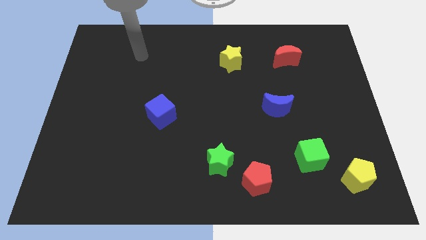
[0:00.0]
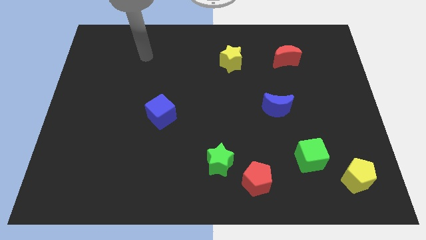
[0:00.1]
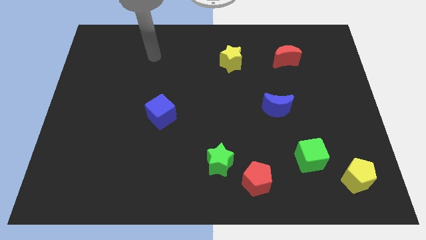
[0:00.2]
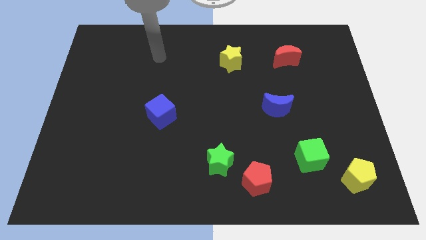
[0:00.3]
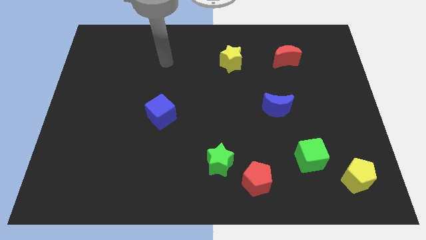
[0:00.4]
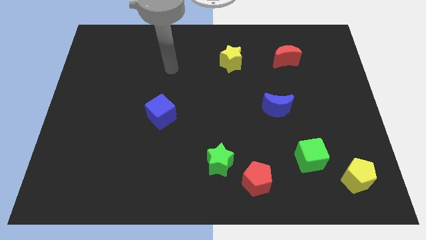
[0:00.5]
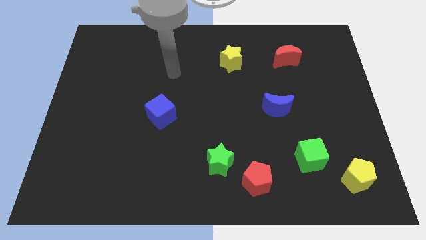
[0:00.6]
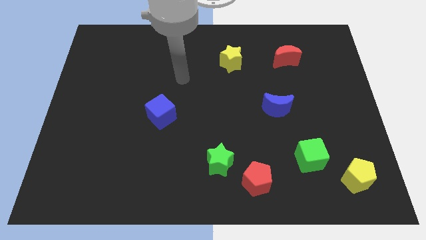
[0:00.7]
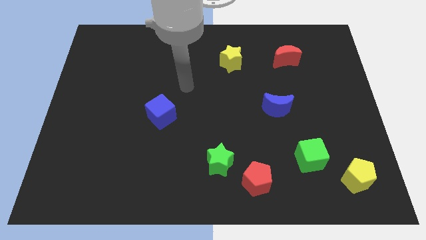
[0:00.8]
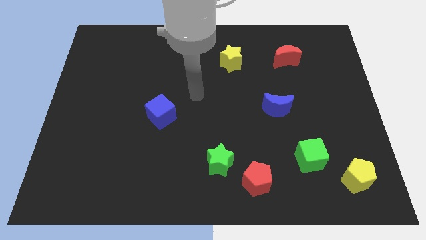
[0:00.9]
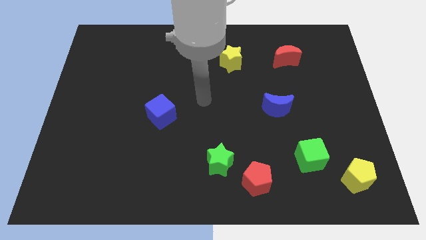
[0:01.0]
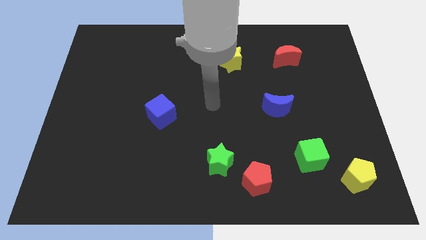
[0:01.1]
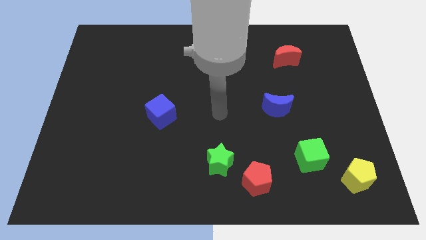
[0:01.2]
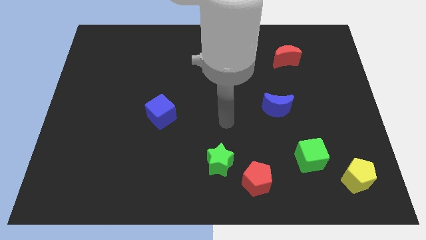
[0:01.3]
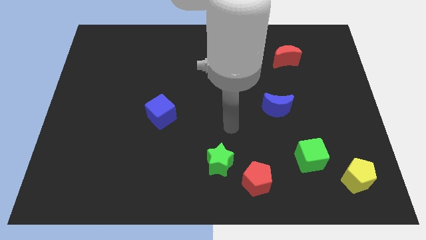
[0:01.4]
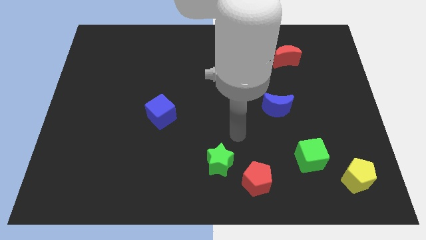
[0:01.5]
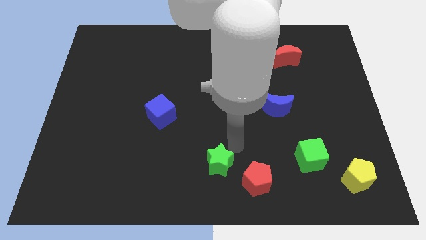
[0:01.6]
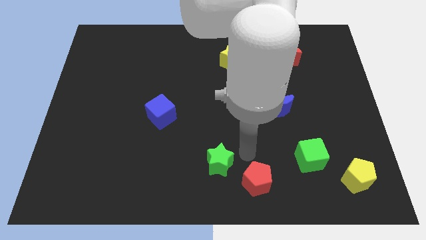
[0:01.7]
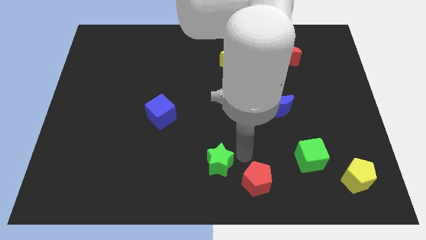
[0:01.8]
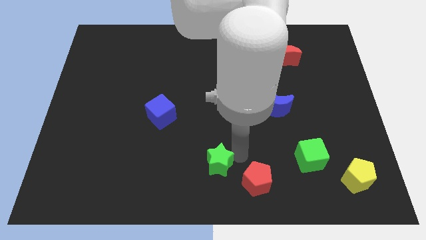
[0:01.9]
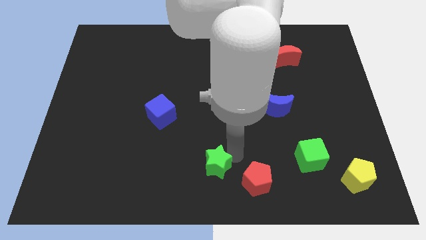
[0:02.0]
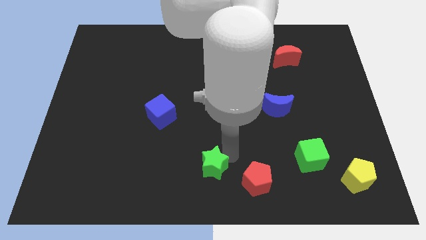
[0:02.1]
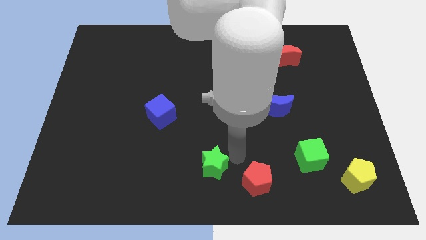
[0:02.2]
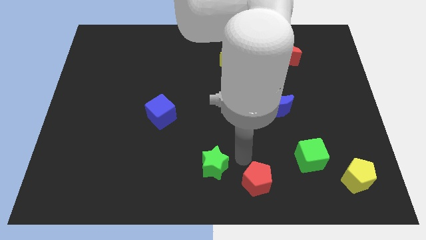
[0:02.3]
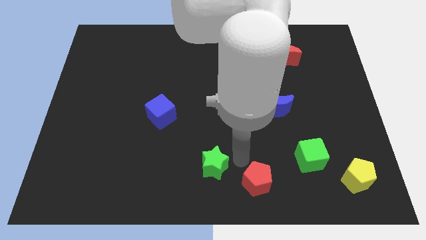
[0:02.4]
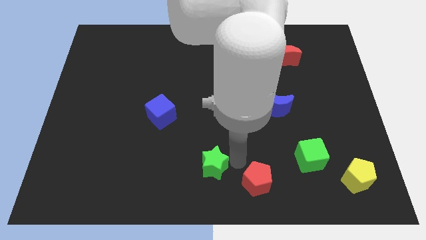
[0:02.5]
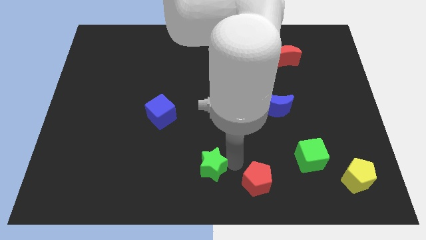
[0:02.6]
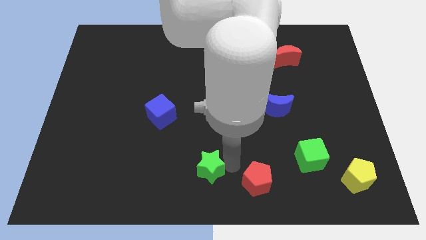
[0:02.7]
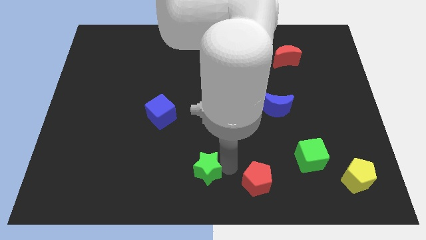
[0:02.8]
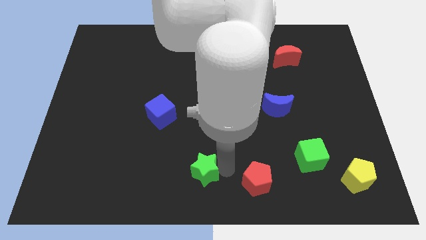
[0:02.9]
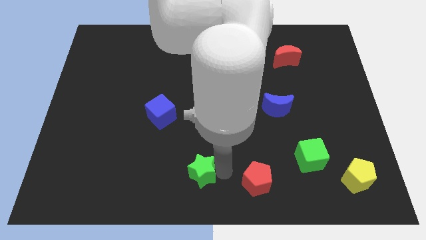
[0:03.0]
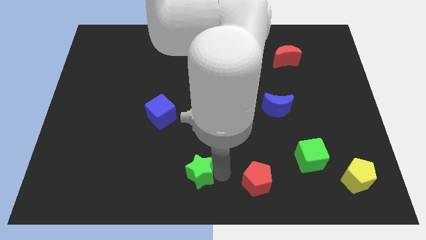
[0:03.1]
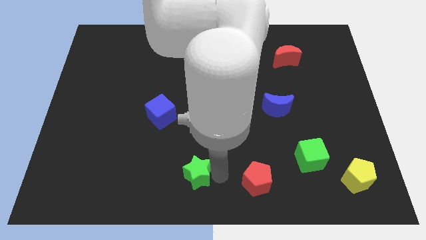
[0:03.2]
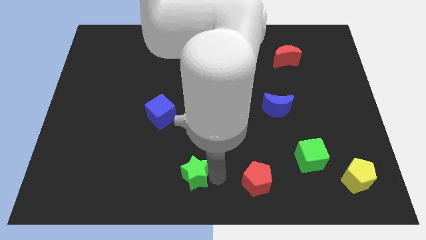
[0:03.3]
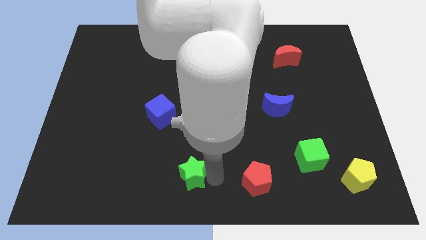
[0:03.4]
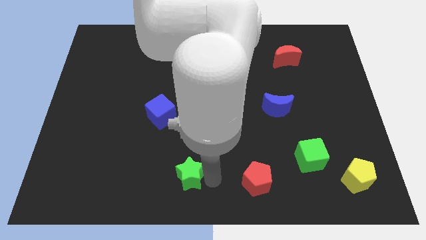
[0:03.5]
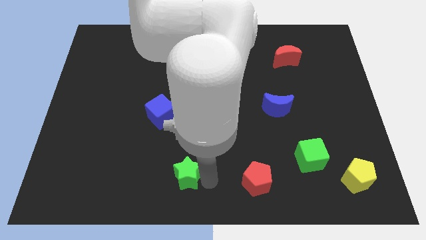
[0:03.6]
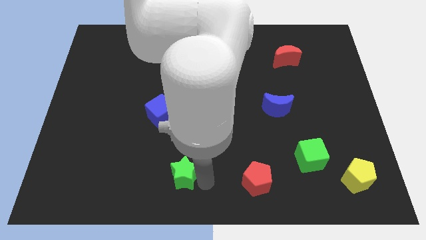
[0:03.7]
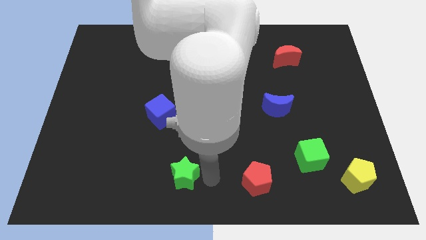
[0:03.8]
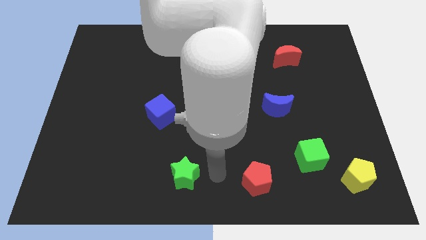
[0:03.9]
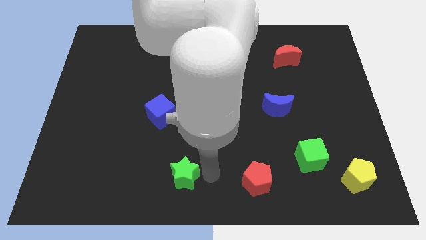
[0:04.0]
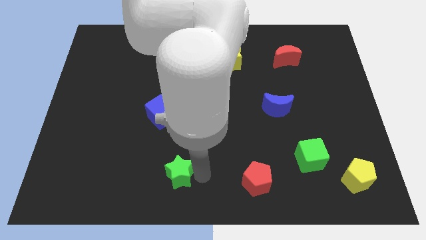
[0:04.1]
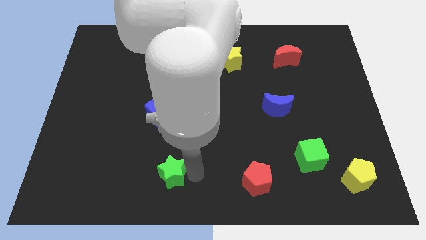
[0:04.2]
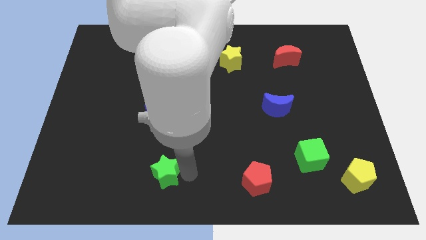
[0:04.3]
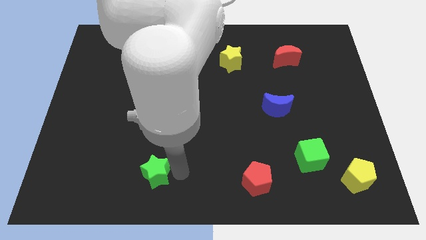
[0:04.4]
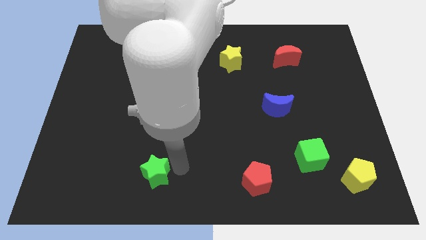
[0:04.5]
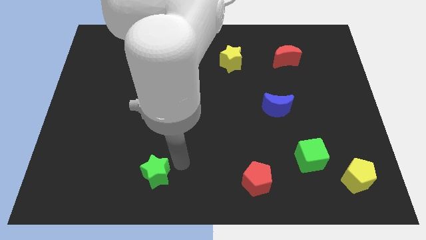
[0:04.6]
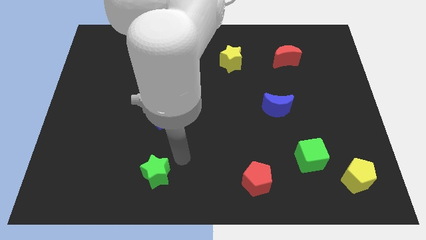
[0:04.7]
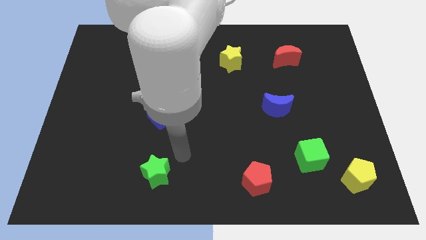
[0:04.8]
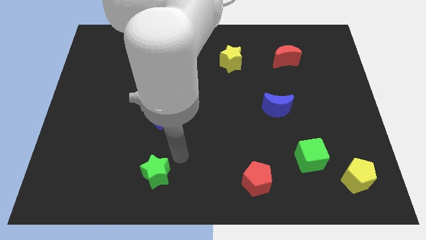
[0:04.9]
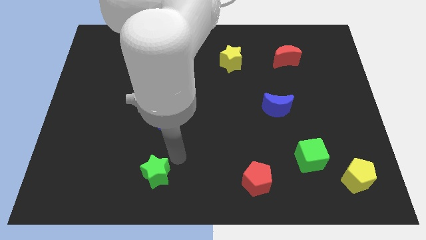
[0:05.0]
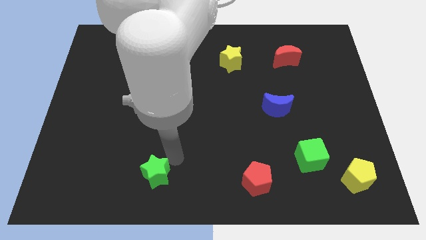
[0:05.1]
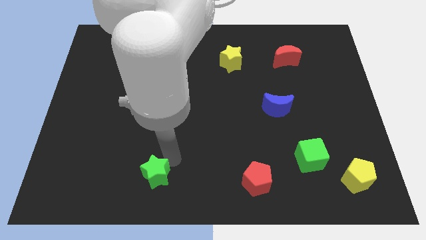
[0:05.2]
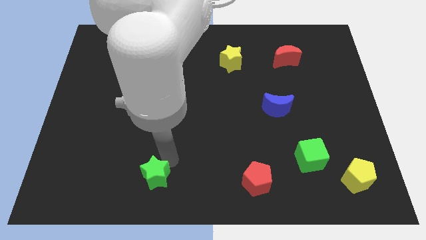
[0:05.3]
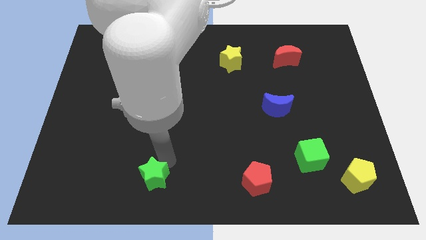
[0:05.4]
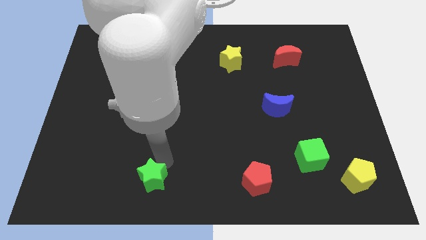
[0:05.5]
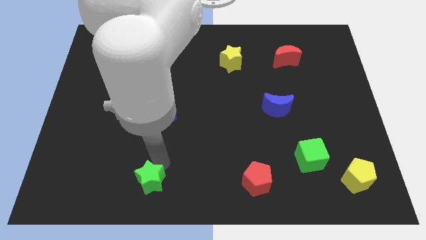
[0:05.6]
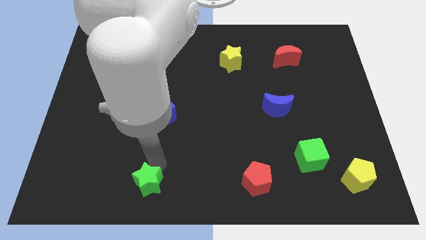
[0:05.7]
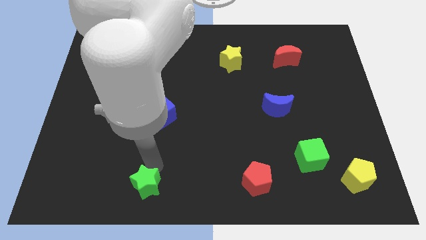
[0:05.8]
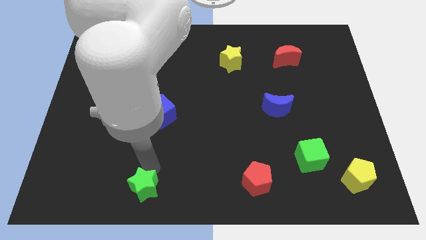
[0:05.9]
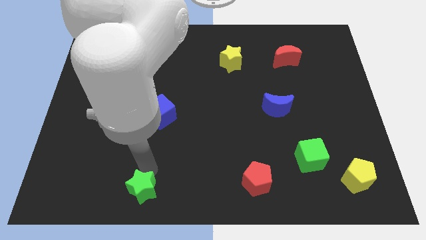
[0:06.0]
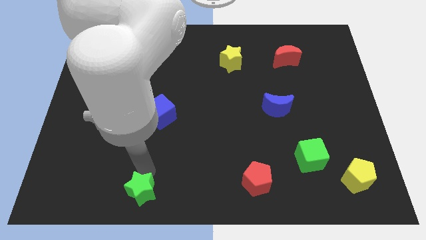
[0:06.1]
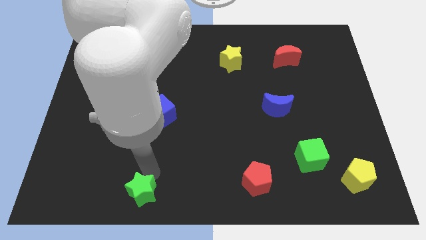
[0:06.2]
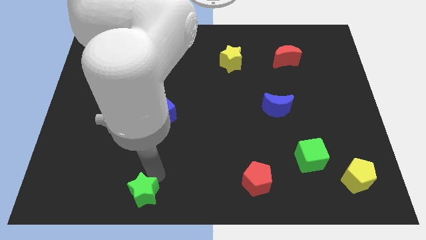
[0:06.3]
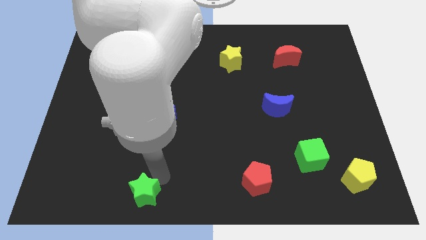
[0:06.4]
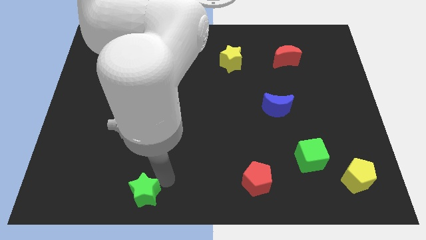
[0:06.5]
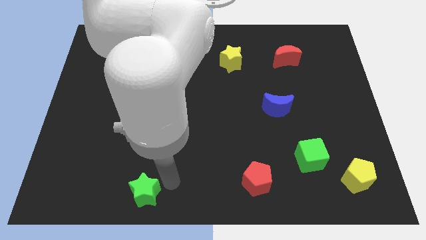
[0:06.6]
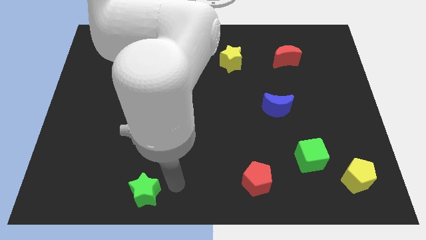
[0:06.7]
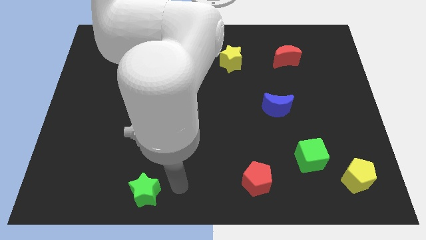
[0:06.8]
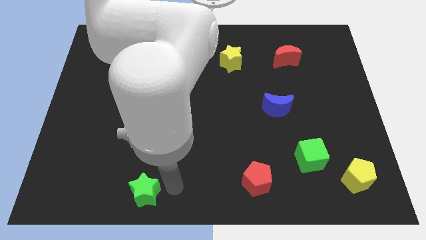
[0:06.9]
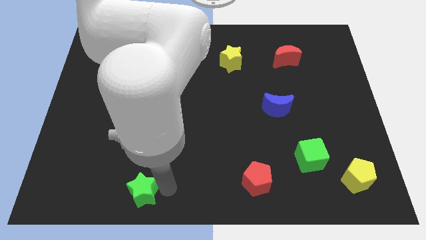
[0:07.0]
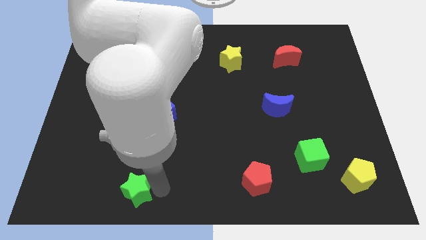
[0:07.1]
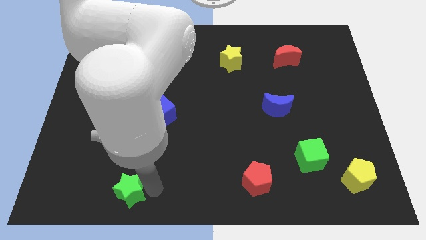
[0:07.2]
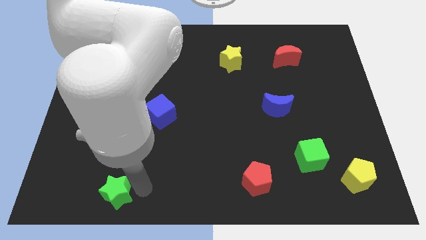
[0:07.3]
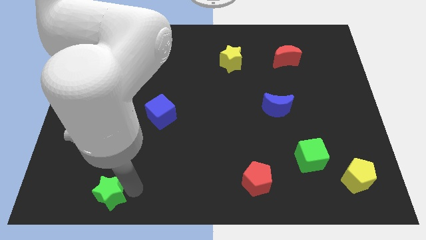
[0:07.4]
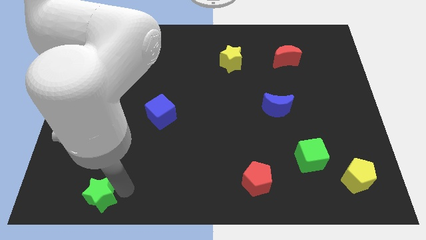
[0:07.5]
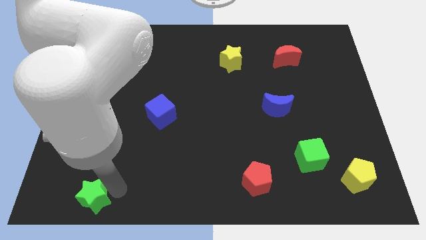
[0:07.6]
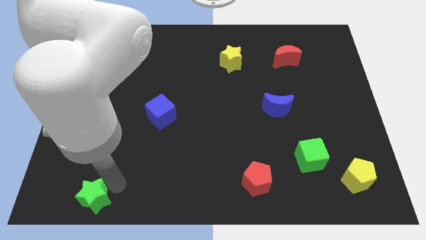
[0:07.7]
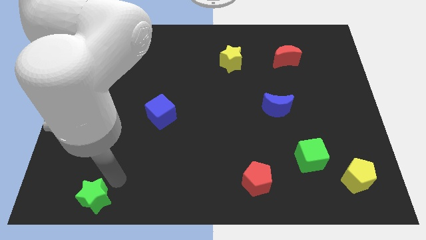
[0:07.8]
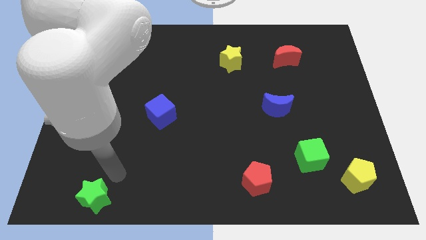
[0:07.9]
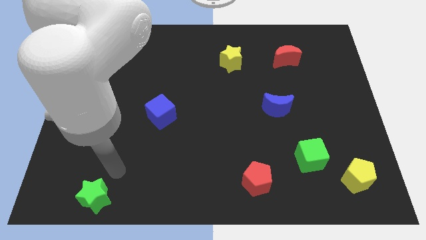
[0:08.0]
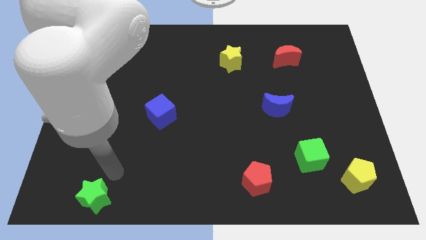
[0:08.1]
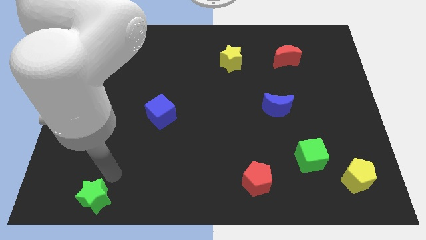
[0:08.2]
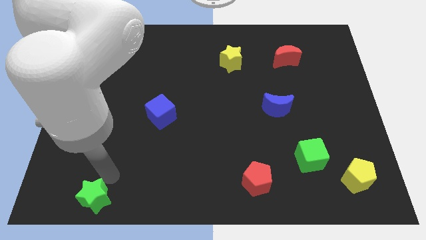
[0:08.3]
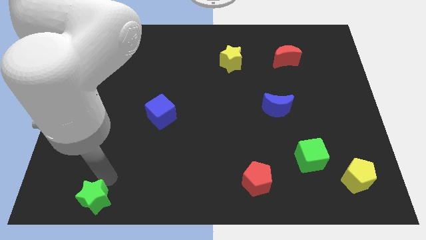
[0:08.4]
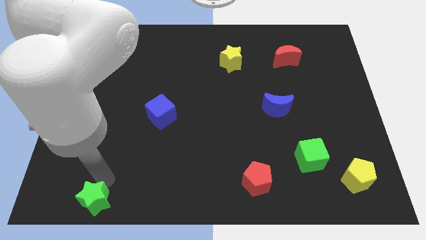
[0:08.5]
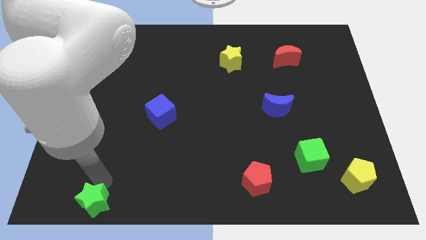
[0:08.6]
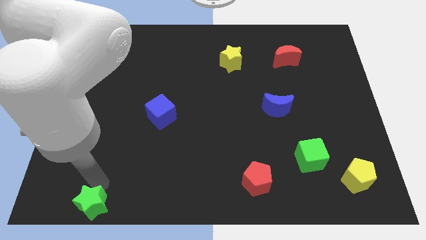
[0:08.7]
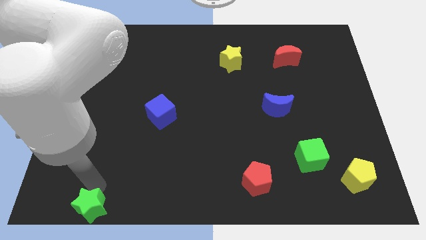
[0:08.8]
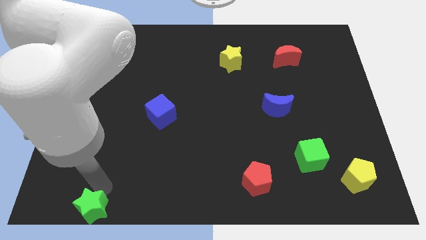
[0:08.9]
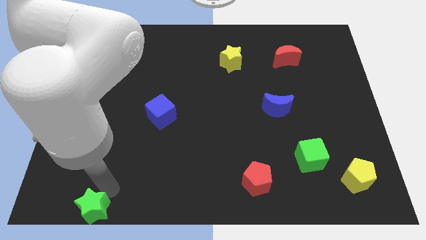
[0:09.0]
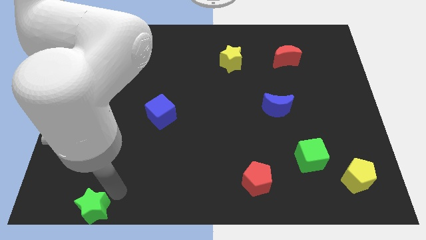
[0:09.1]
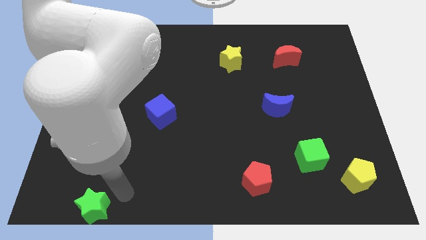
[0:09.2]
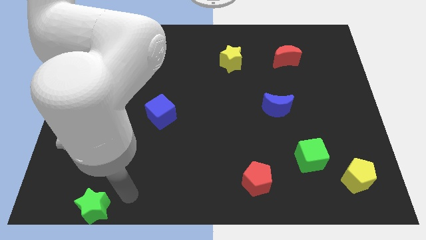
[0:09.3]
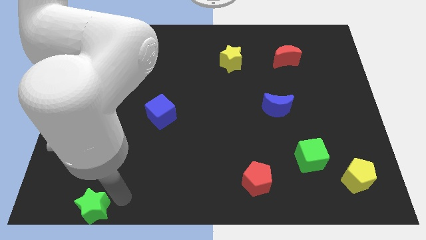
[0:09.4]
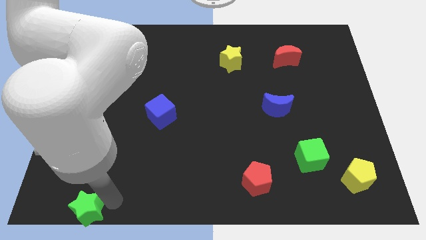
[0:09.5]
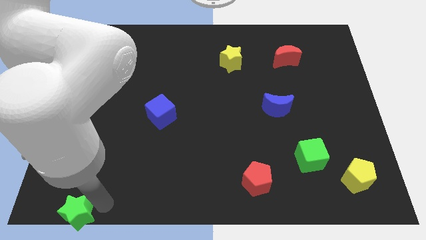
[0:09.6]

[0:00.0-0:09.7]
slide the green star to the lower left corner
